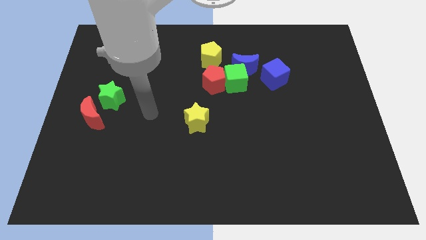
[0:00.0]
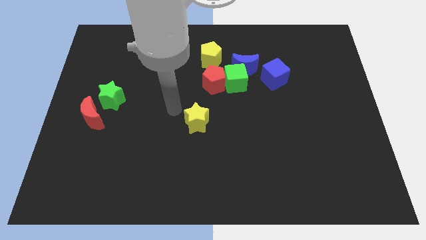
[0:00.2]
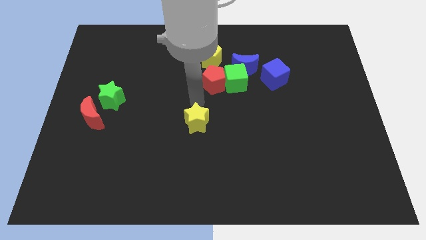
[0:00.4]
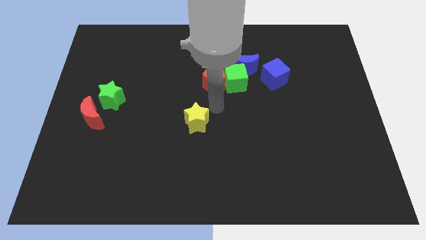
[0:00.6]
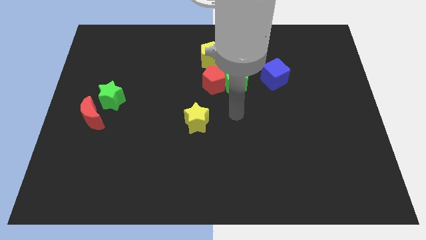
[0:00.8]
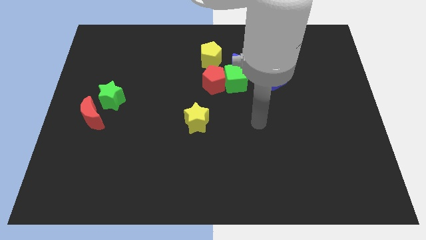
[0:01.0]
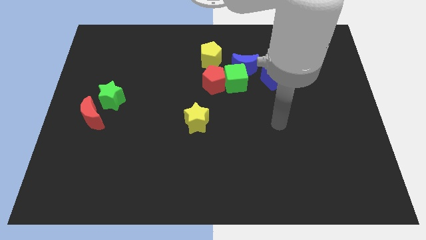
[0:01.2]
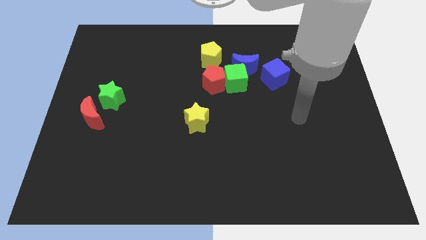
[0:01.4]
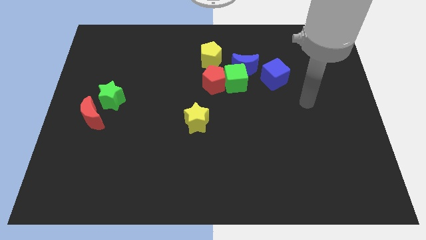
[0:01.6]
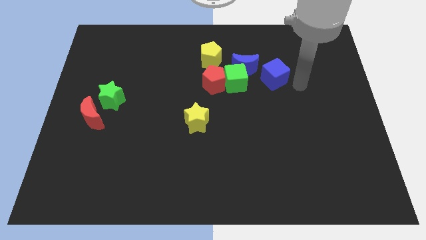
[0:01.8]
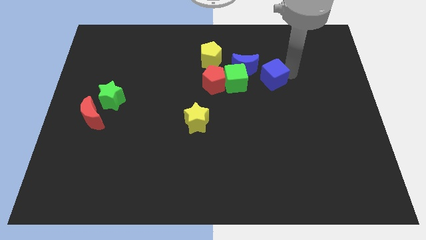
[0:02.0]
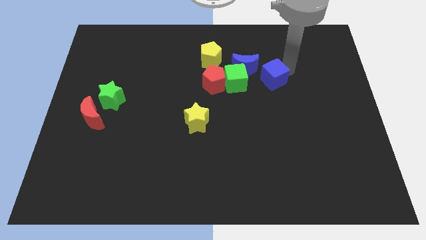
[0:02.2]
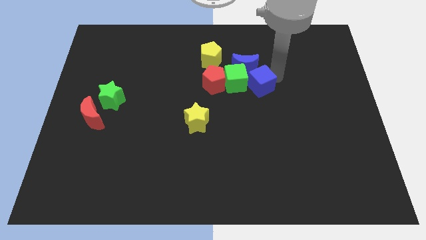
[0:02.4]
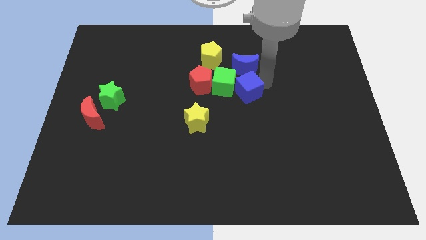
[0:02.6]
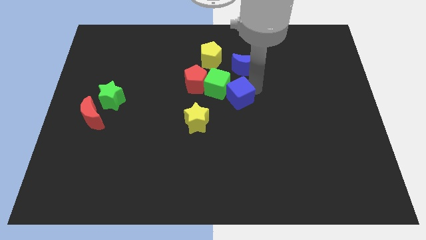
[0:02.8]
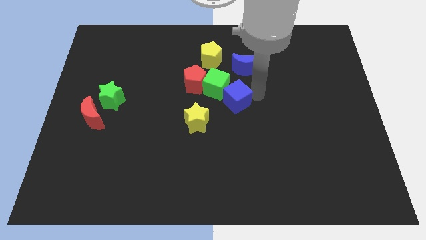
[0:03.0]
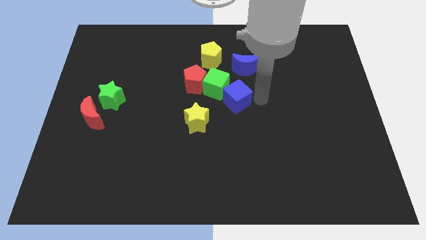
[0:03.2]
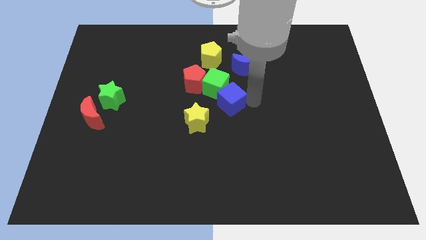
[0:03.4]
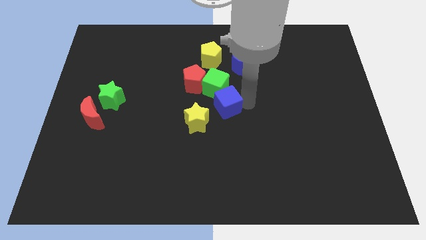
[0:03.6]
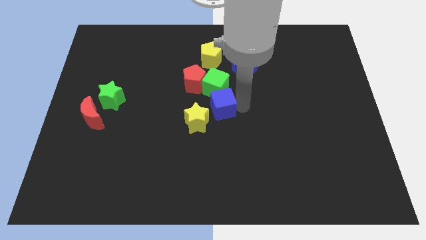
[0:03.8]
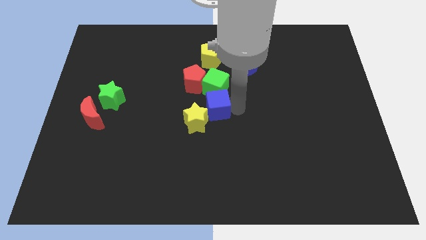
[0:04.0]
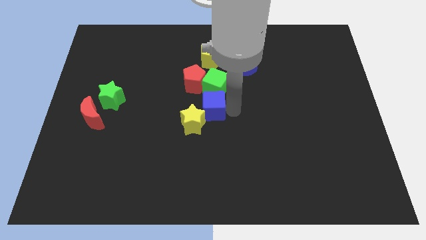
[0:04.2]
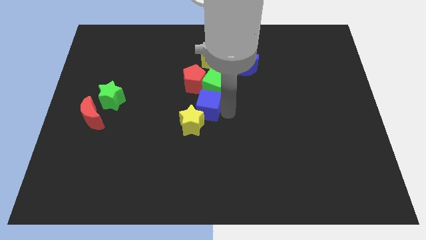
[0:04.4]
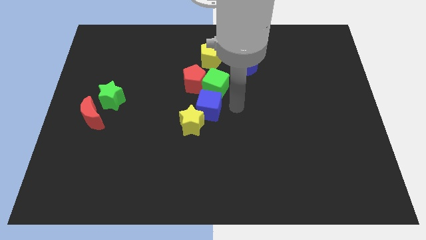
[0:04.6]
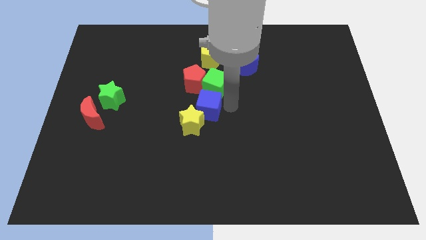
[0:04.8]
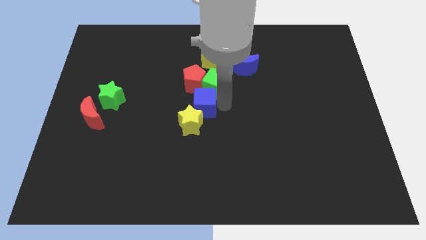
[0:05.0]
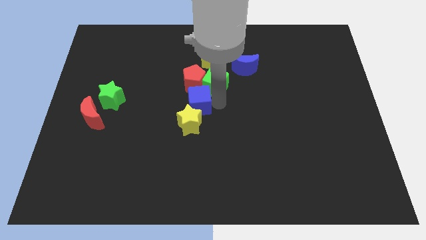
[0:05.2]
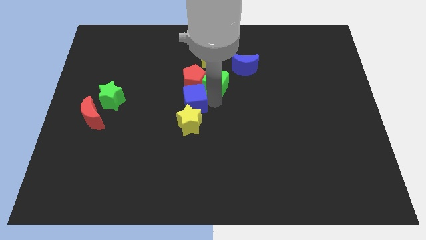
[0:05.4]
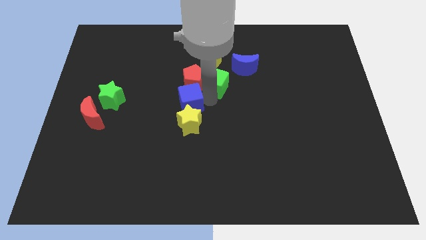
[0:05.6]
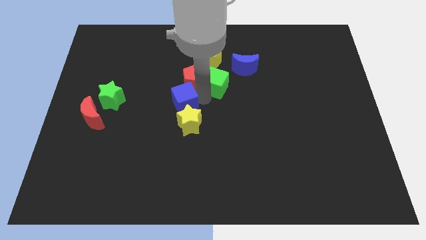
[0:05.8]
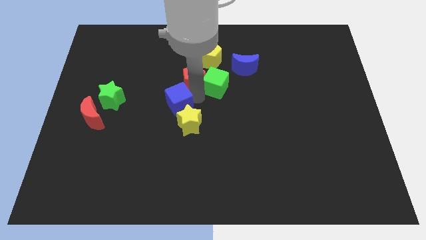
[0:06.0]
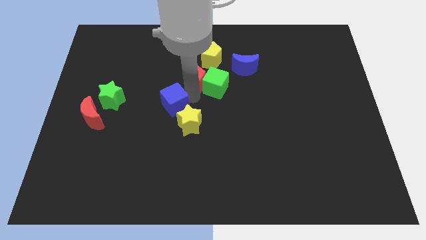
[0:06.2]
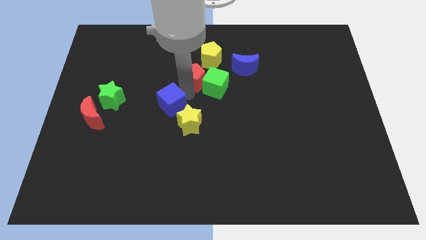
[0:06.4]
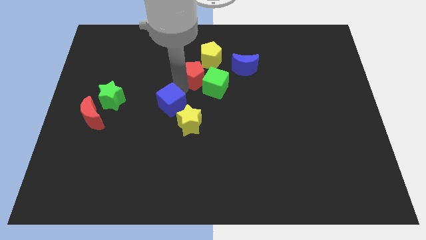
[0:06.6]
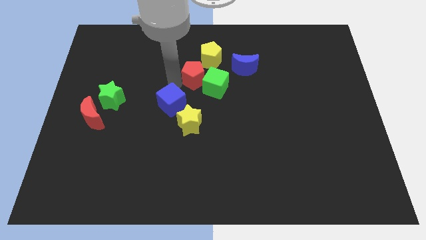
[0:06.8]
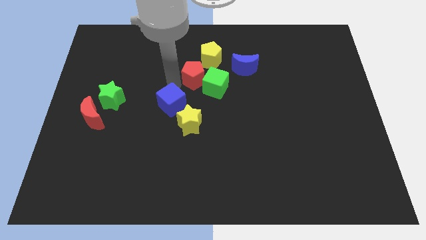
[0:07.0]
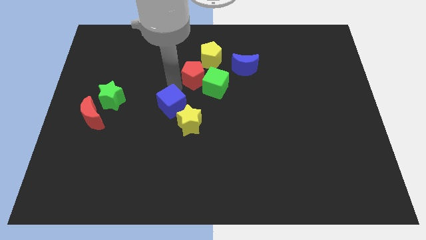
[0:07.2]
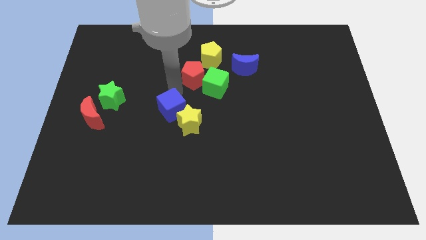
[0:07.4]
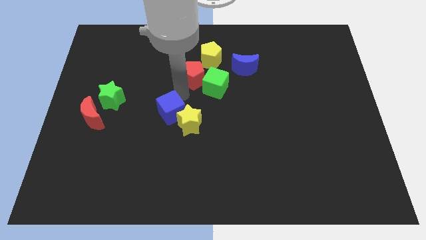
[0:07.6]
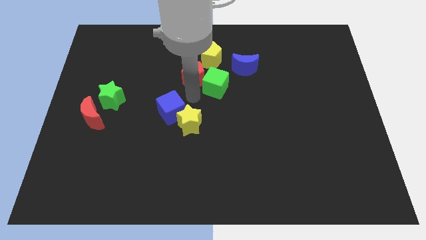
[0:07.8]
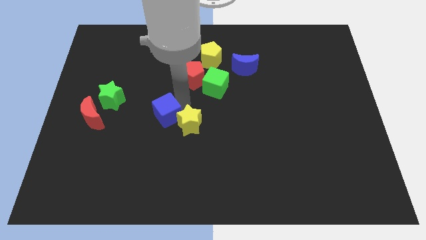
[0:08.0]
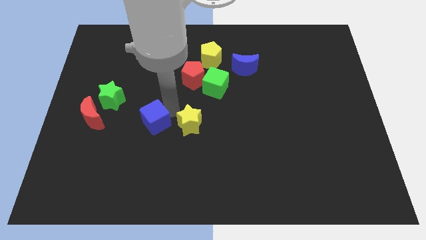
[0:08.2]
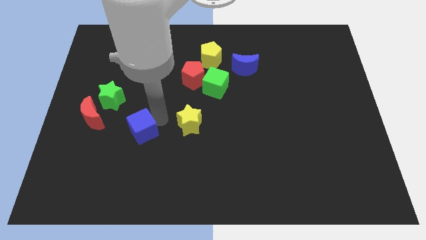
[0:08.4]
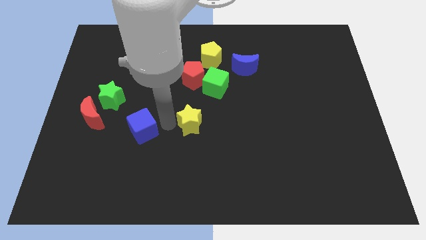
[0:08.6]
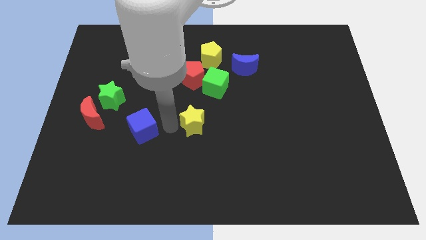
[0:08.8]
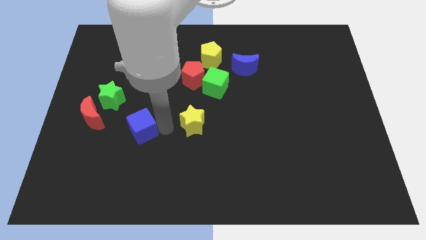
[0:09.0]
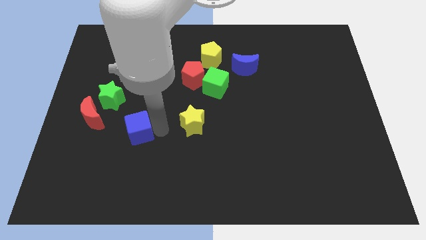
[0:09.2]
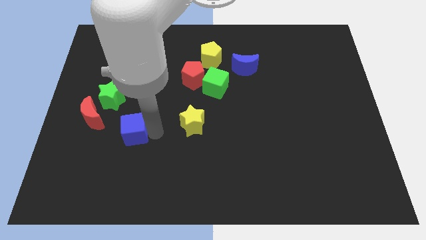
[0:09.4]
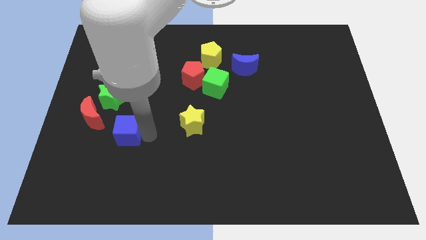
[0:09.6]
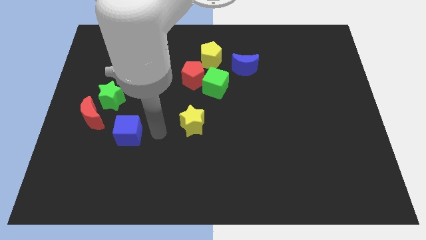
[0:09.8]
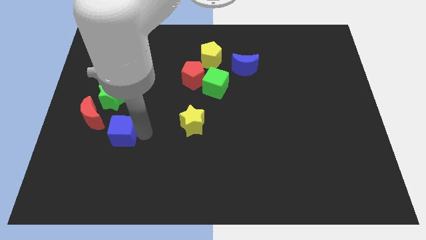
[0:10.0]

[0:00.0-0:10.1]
push the blue cube below the green star

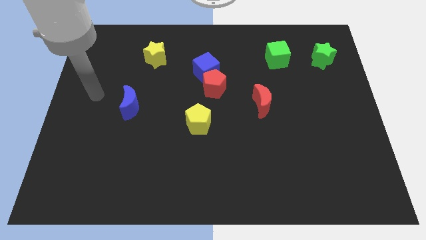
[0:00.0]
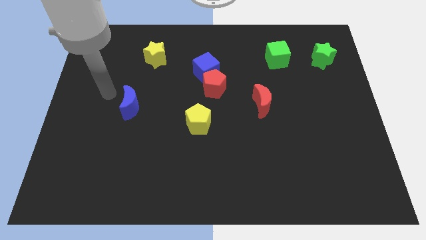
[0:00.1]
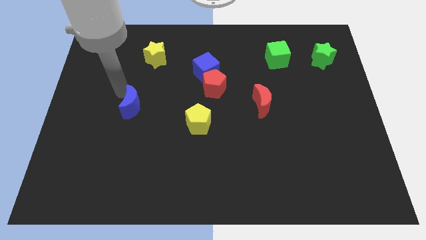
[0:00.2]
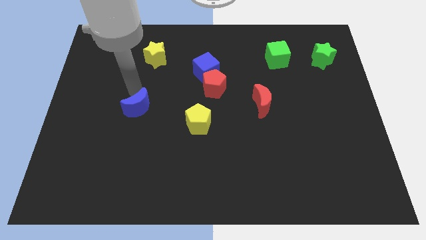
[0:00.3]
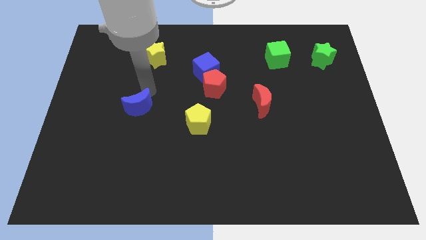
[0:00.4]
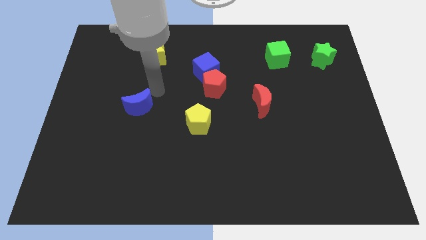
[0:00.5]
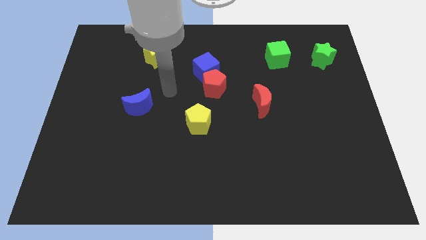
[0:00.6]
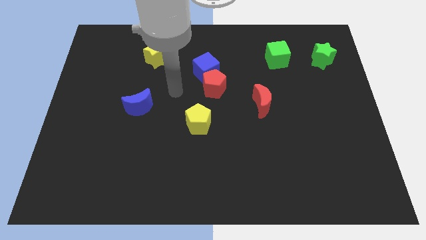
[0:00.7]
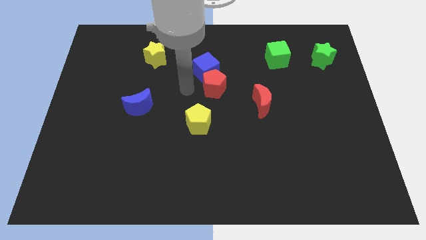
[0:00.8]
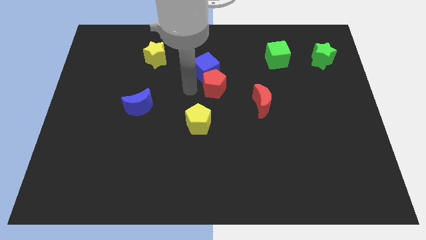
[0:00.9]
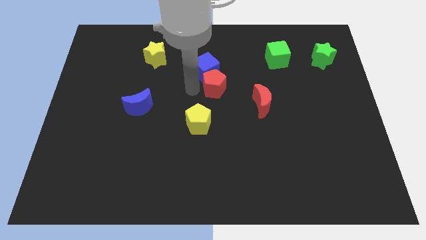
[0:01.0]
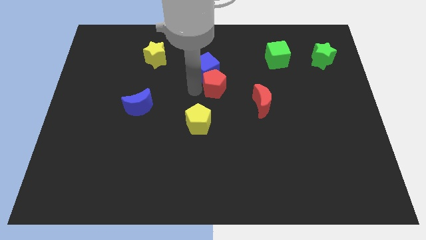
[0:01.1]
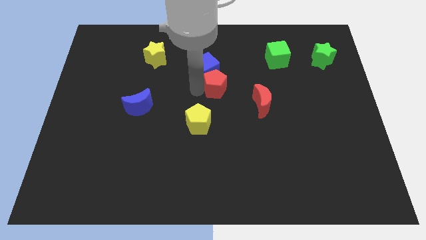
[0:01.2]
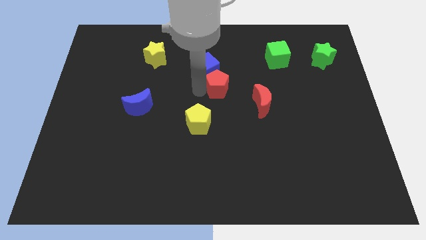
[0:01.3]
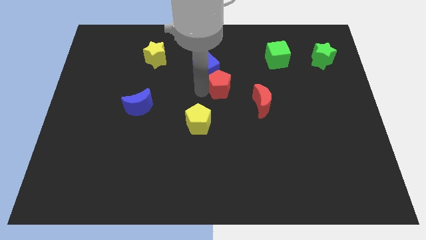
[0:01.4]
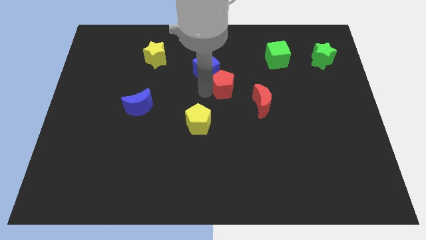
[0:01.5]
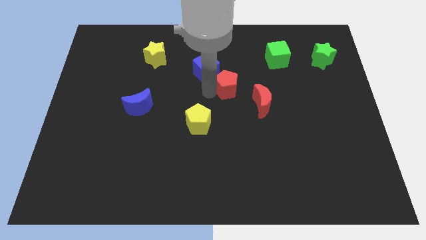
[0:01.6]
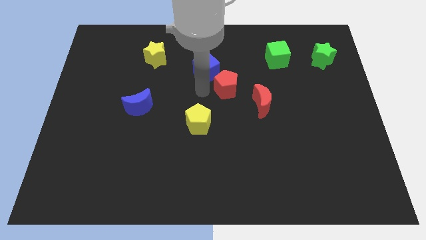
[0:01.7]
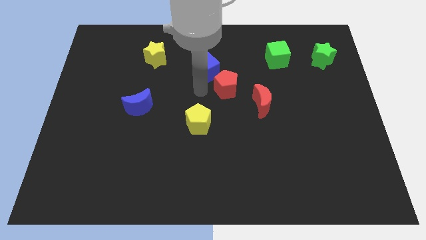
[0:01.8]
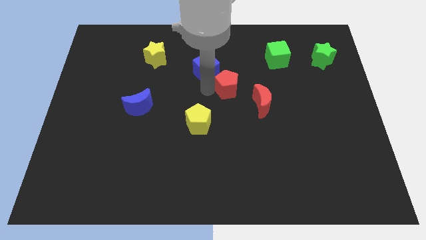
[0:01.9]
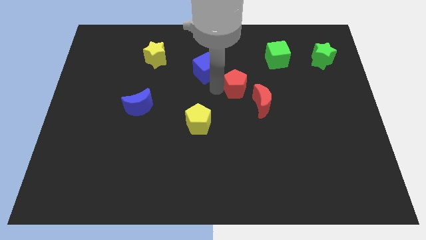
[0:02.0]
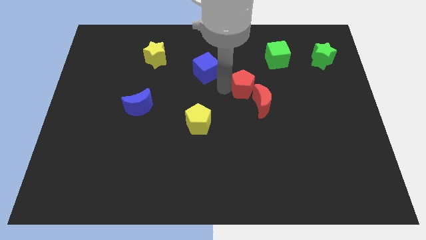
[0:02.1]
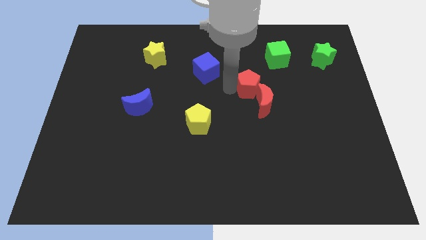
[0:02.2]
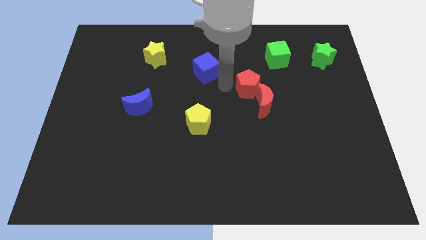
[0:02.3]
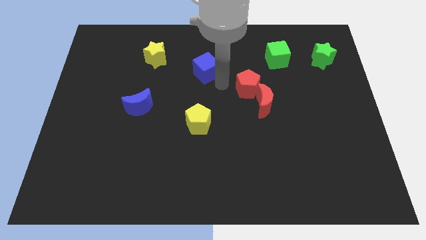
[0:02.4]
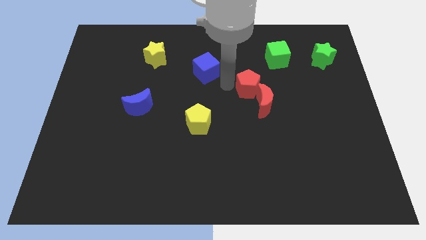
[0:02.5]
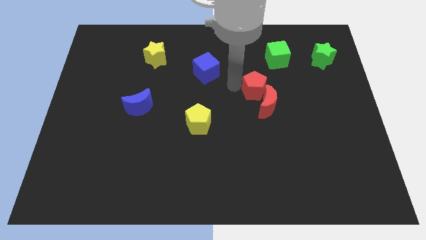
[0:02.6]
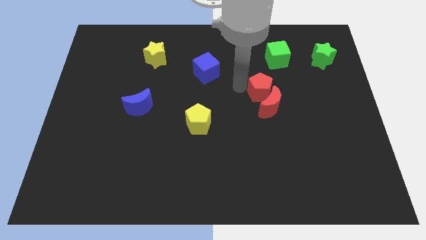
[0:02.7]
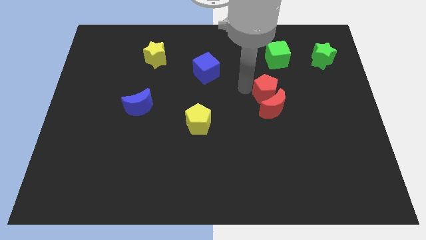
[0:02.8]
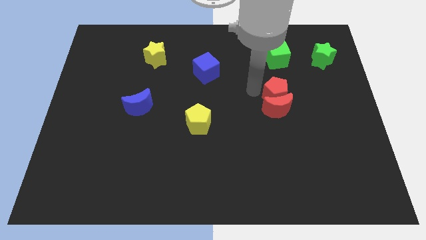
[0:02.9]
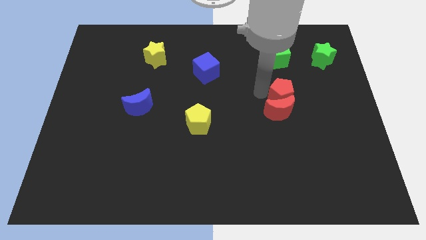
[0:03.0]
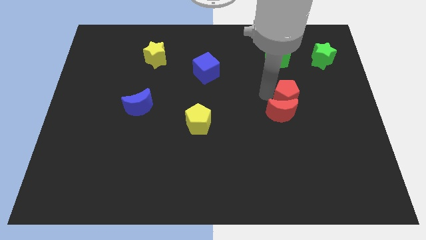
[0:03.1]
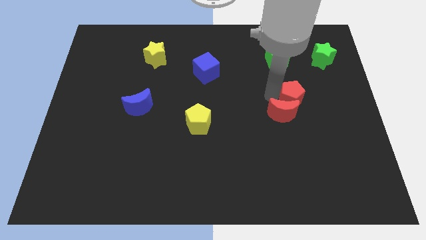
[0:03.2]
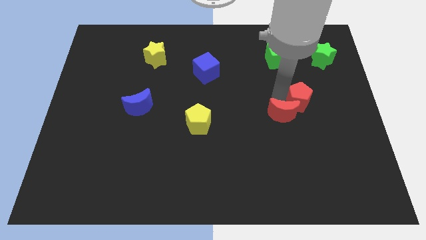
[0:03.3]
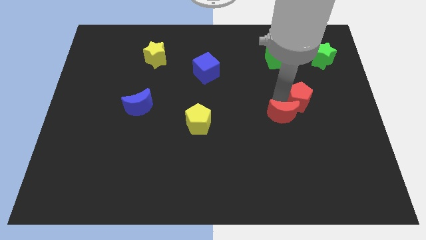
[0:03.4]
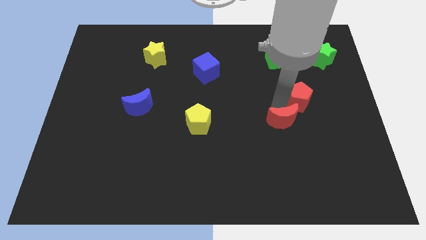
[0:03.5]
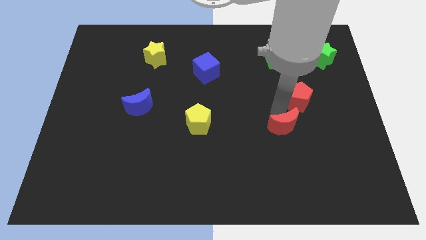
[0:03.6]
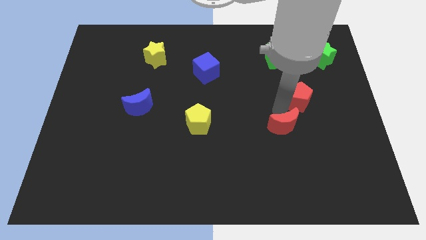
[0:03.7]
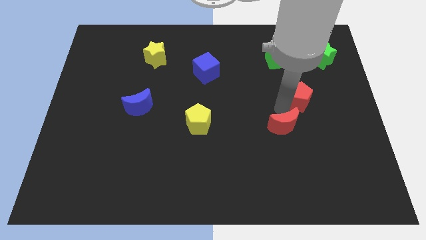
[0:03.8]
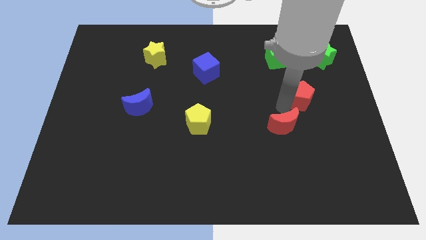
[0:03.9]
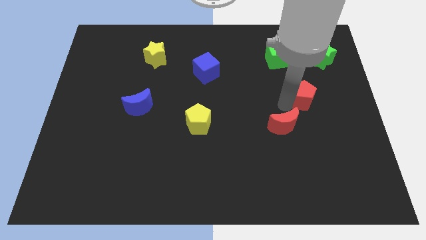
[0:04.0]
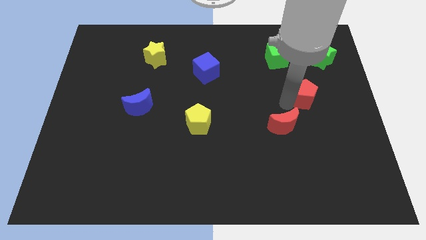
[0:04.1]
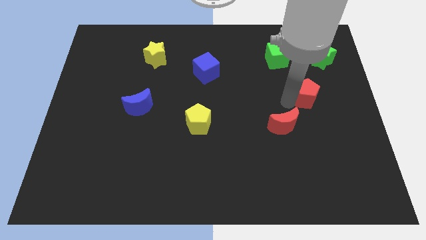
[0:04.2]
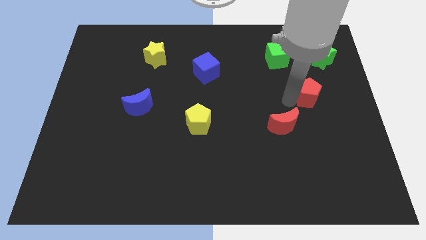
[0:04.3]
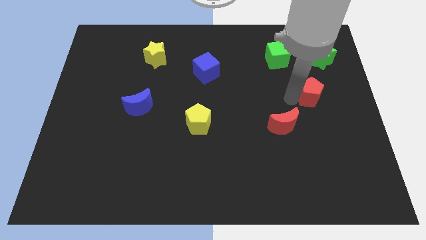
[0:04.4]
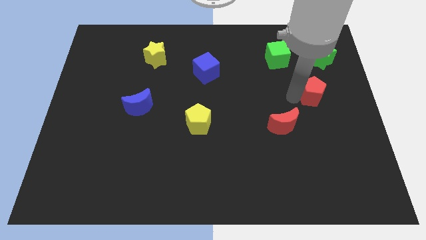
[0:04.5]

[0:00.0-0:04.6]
put the red pentagon to the bottom of the green star
